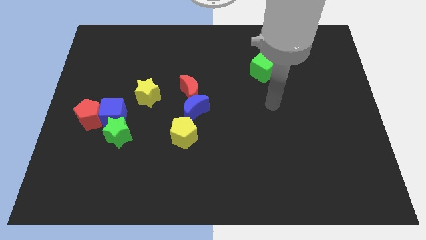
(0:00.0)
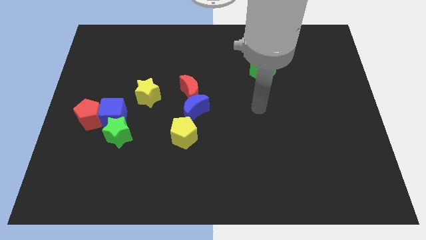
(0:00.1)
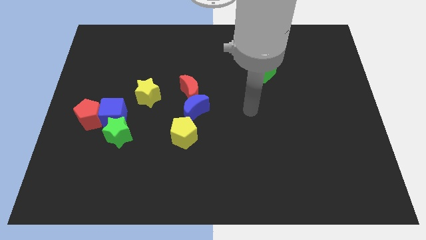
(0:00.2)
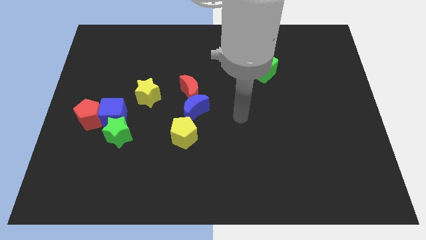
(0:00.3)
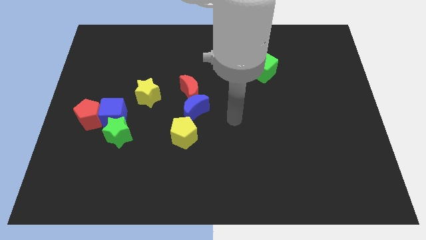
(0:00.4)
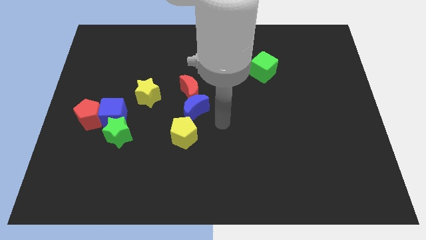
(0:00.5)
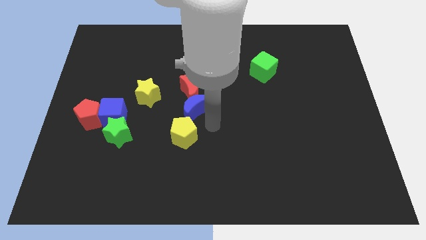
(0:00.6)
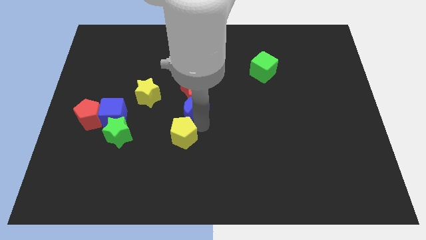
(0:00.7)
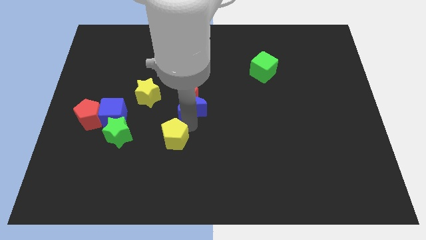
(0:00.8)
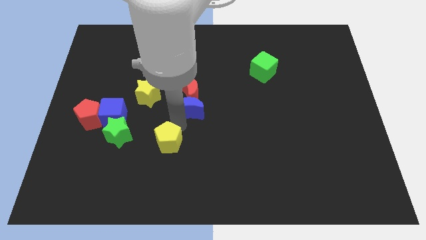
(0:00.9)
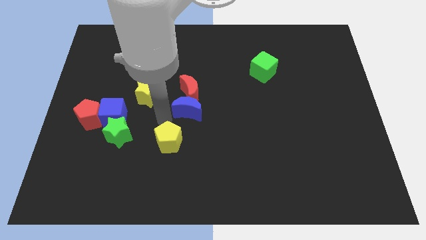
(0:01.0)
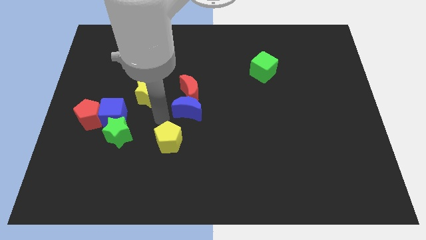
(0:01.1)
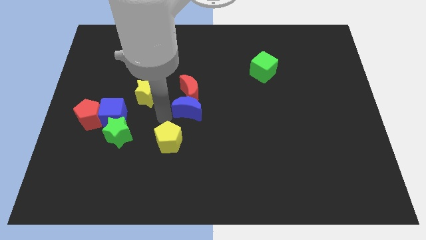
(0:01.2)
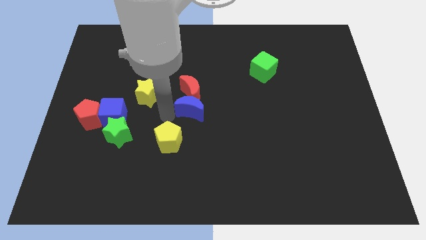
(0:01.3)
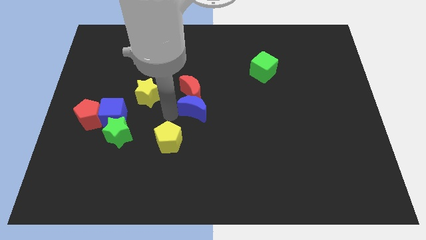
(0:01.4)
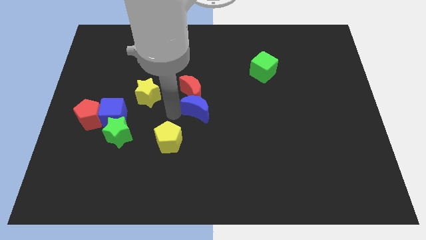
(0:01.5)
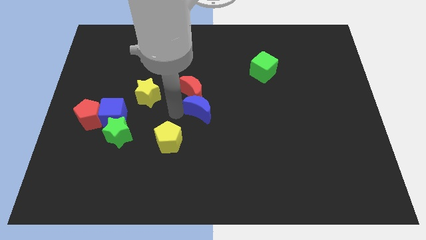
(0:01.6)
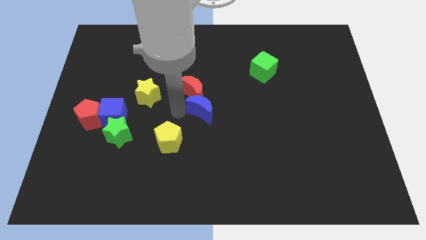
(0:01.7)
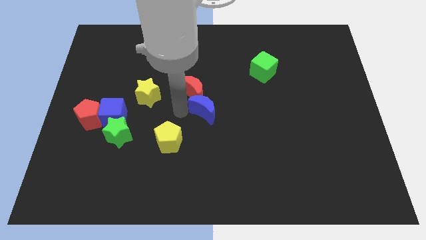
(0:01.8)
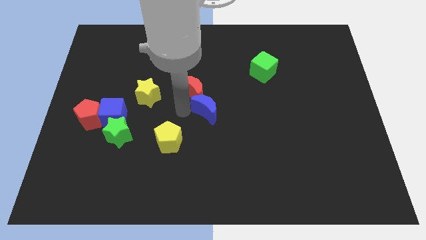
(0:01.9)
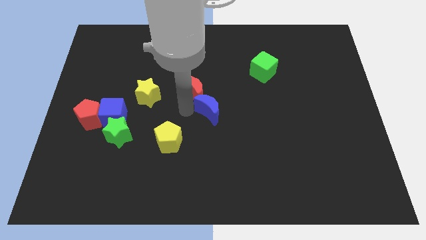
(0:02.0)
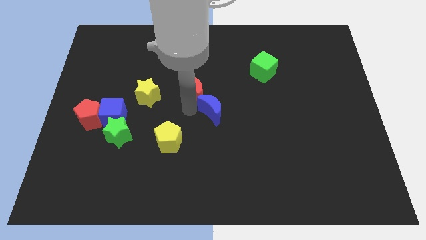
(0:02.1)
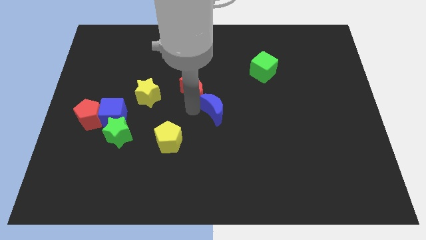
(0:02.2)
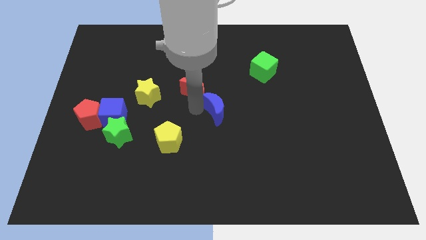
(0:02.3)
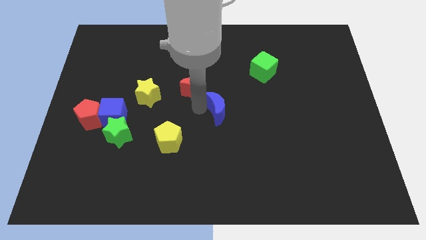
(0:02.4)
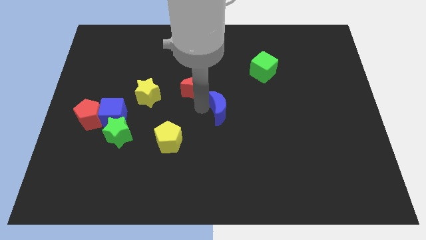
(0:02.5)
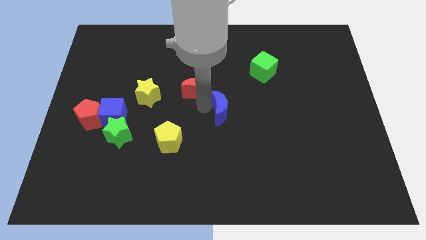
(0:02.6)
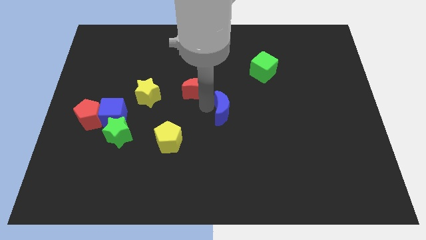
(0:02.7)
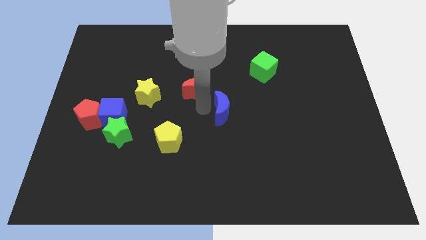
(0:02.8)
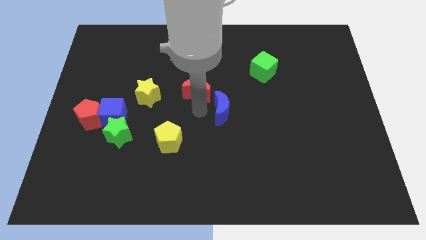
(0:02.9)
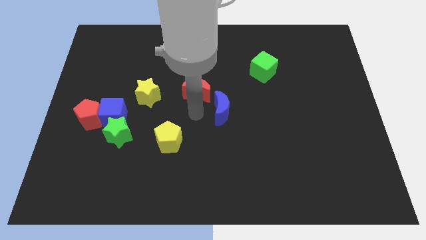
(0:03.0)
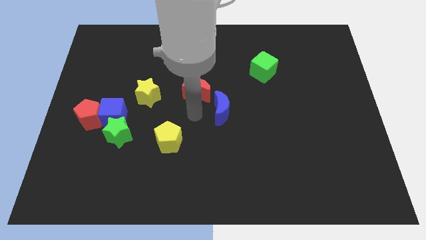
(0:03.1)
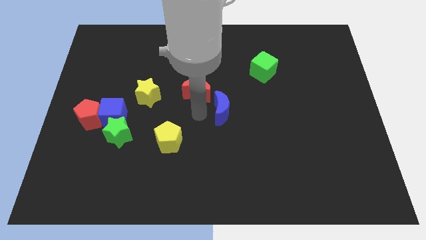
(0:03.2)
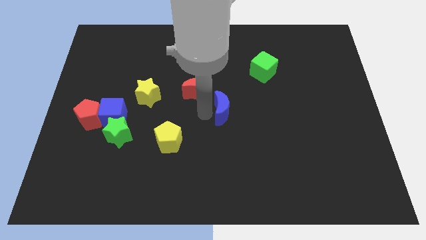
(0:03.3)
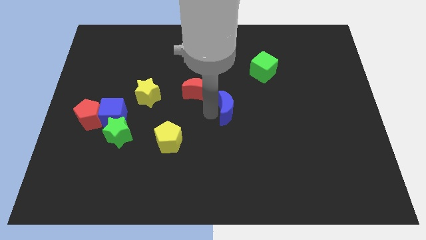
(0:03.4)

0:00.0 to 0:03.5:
separate the blue moon from the red moon and yellow pentagon

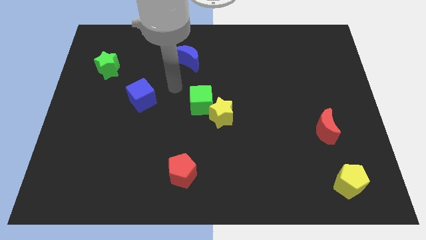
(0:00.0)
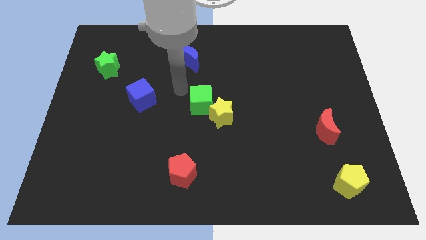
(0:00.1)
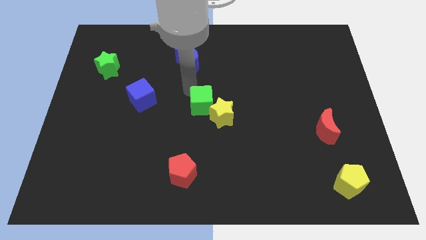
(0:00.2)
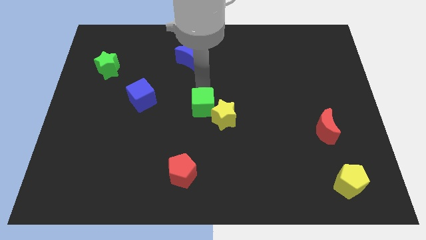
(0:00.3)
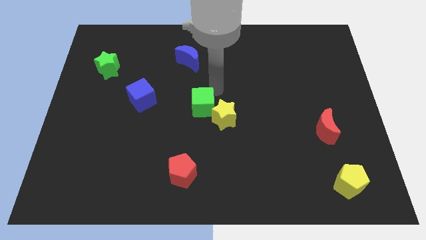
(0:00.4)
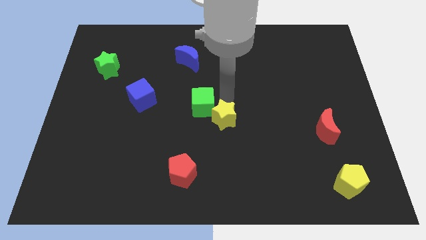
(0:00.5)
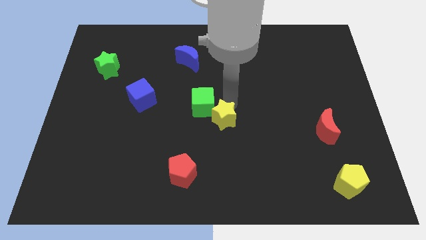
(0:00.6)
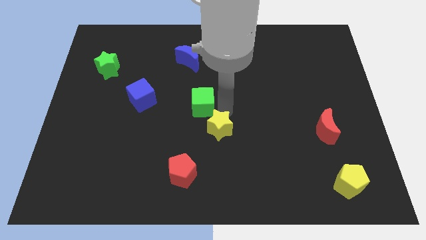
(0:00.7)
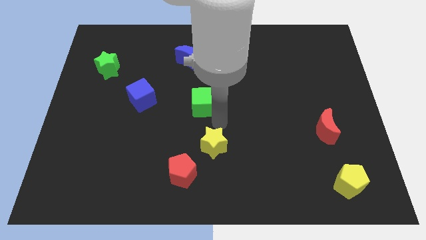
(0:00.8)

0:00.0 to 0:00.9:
move the green cube away from the yellow star

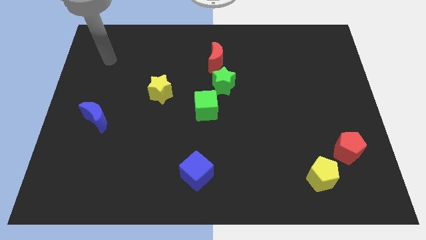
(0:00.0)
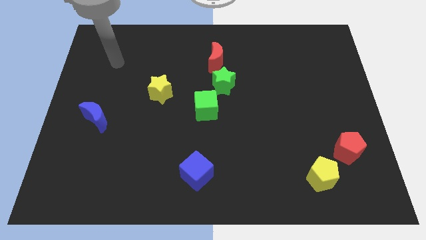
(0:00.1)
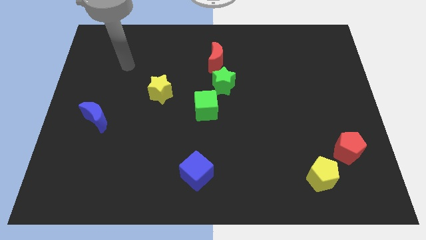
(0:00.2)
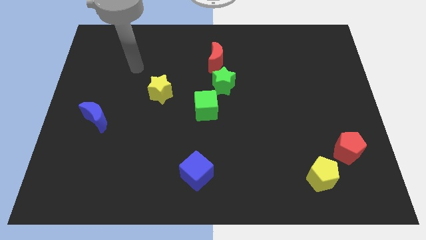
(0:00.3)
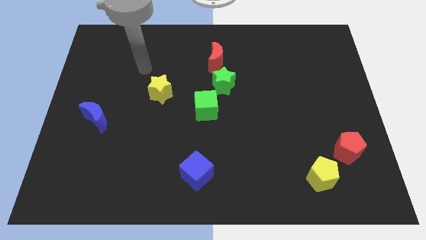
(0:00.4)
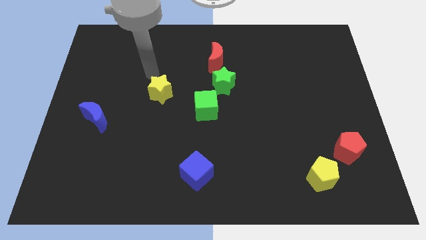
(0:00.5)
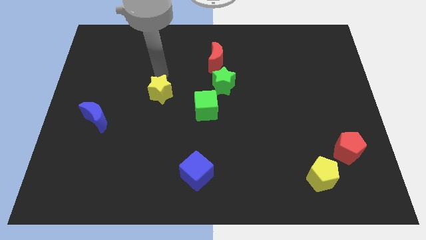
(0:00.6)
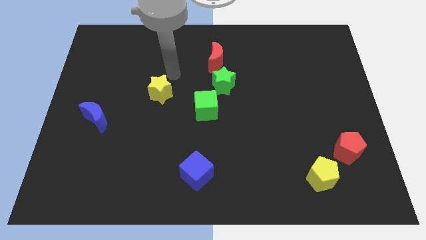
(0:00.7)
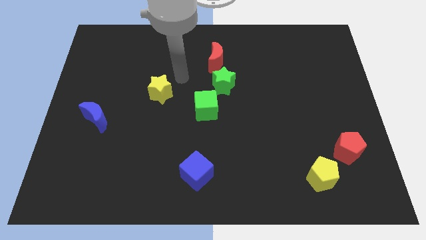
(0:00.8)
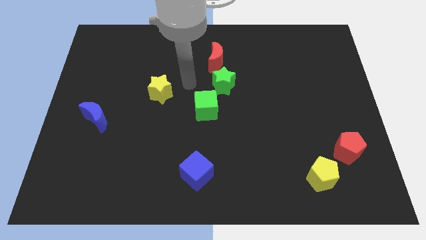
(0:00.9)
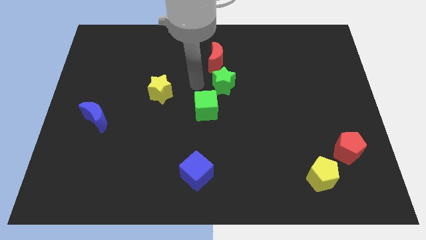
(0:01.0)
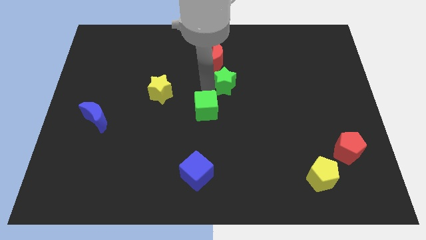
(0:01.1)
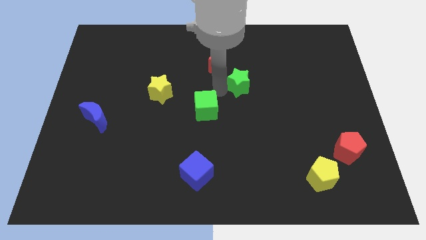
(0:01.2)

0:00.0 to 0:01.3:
pull the green cube apart from the green star

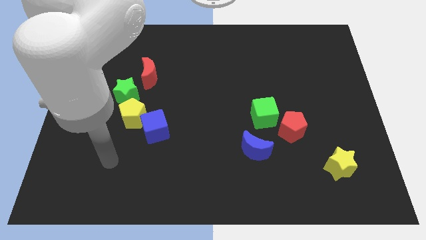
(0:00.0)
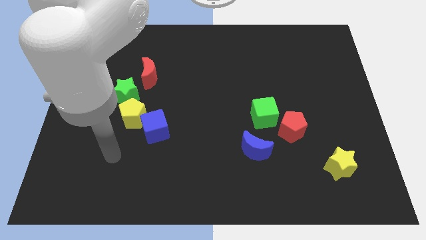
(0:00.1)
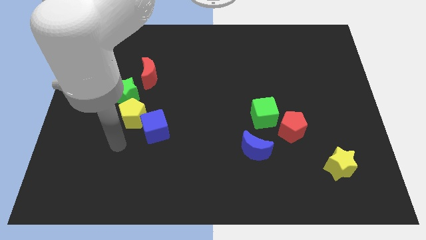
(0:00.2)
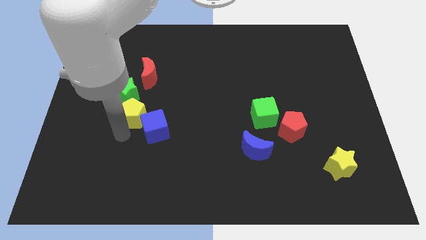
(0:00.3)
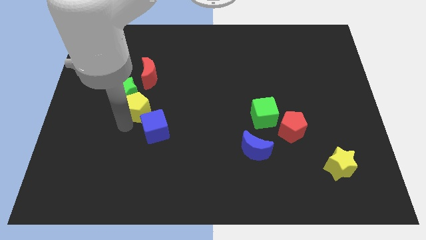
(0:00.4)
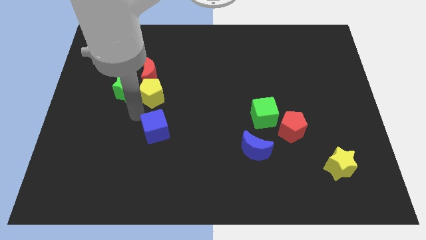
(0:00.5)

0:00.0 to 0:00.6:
pull the blue cube apart from the yellow pentagon

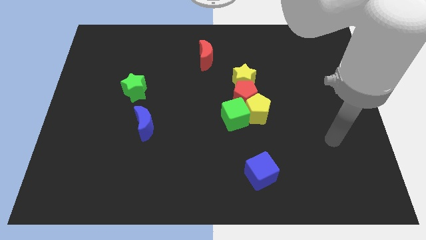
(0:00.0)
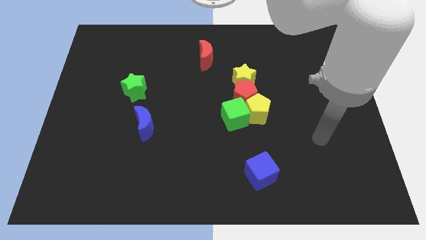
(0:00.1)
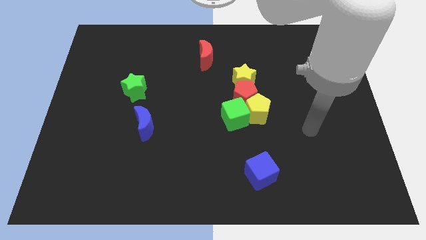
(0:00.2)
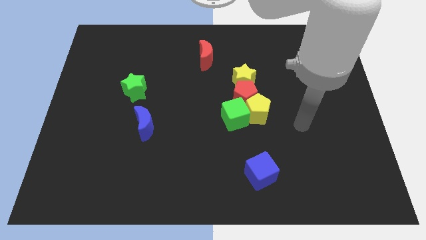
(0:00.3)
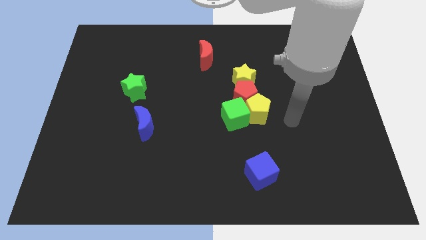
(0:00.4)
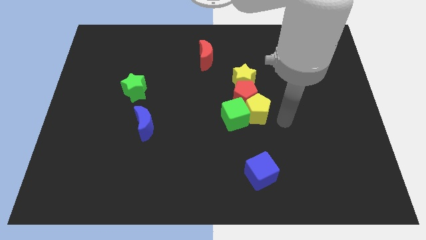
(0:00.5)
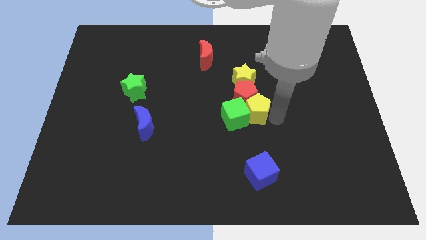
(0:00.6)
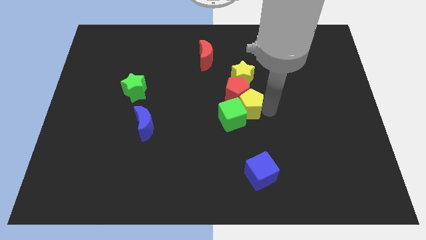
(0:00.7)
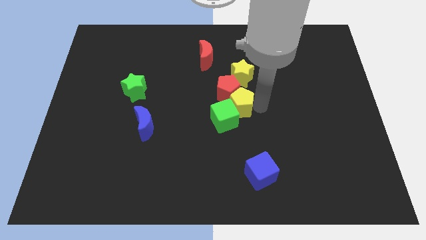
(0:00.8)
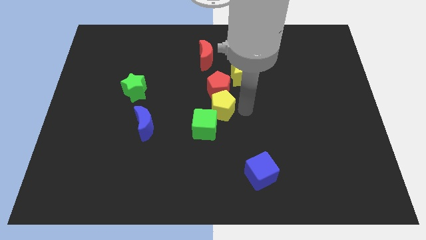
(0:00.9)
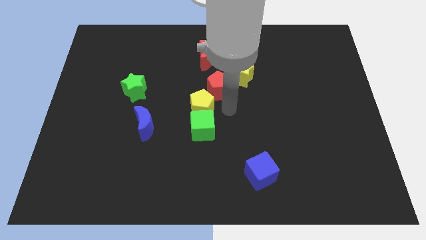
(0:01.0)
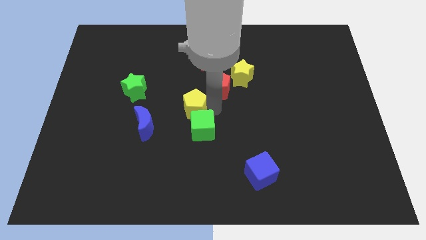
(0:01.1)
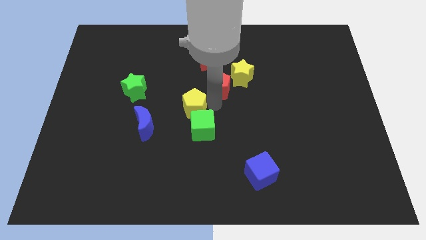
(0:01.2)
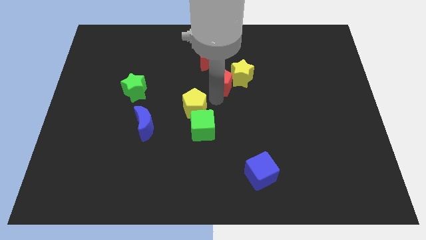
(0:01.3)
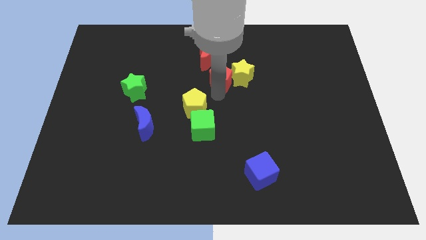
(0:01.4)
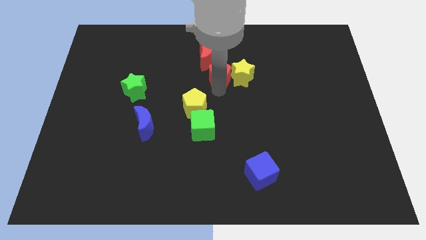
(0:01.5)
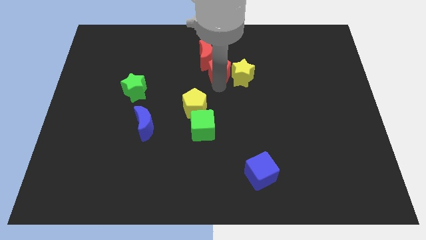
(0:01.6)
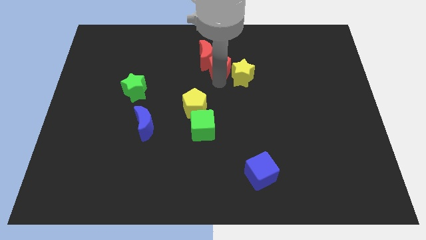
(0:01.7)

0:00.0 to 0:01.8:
move the red pentagon away from the yellow star, yellow pentagon, and green cube

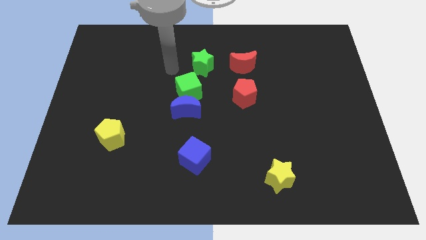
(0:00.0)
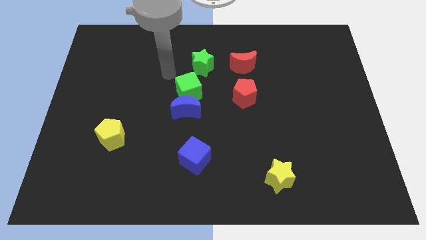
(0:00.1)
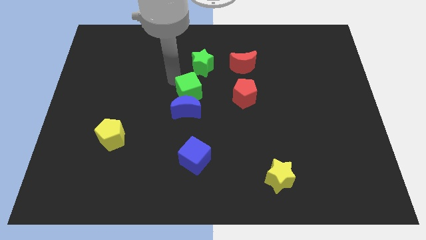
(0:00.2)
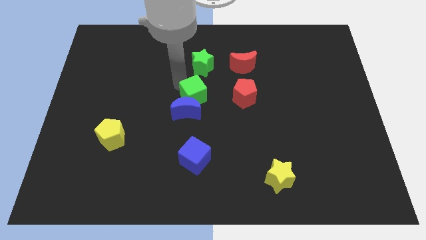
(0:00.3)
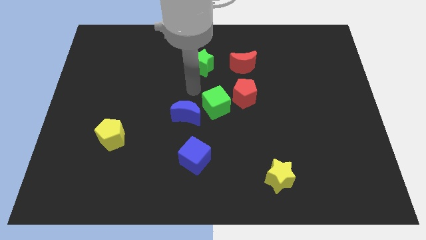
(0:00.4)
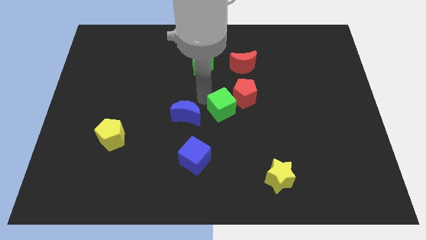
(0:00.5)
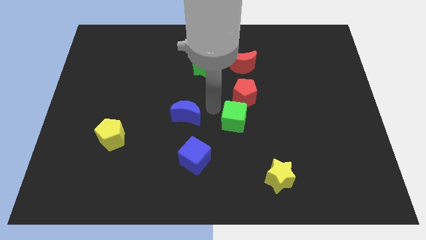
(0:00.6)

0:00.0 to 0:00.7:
move the blue moon away from the green cube

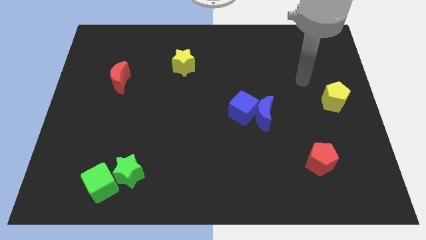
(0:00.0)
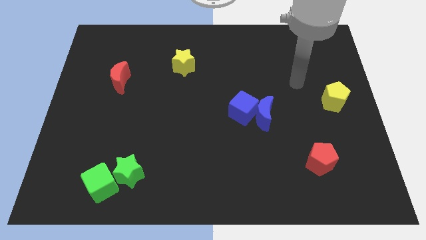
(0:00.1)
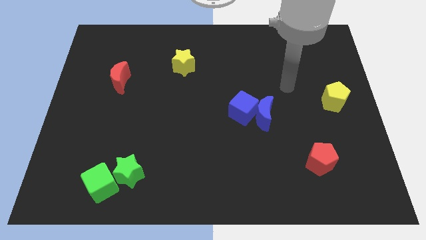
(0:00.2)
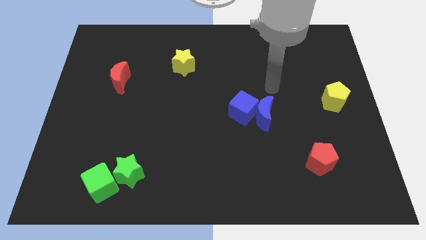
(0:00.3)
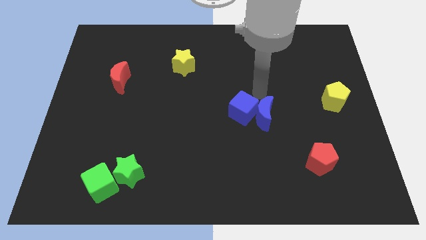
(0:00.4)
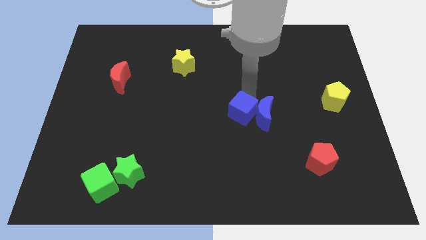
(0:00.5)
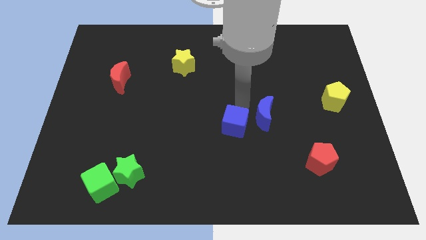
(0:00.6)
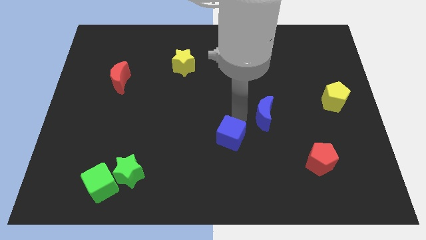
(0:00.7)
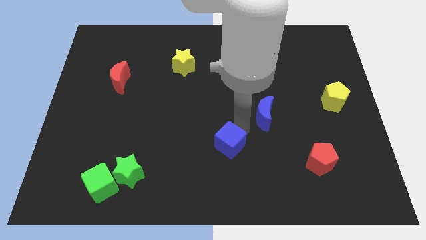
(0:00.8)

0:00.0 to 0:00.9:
move the blue moon away from the blue cube
